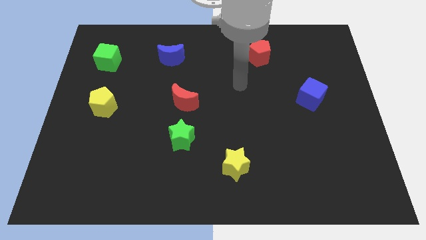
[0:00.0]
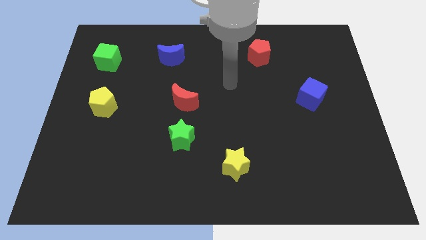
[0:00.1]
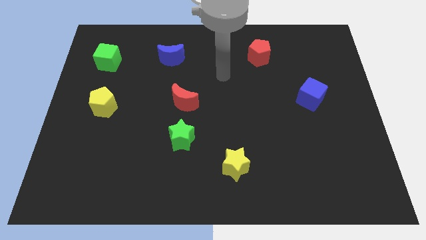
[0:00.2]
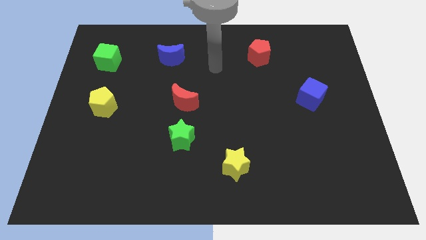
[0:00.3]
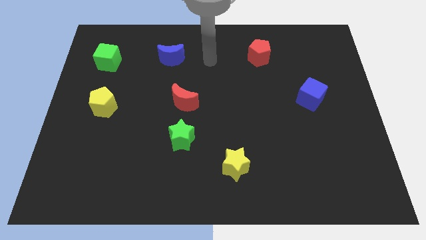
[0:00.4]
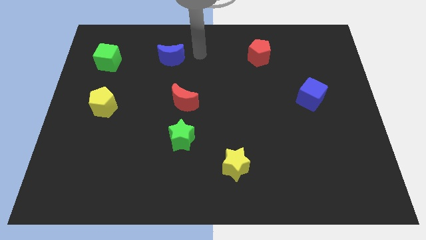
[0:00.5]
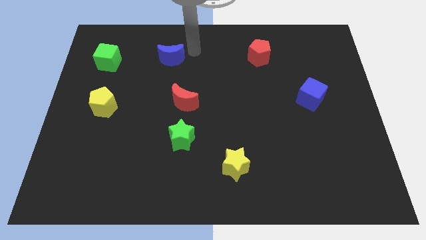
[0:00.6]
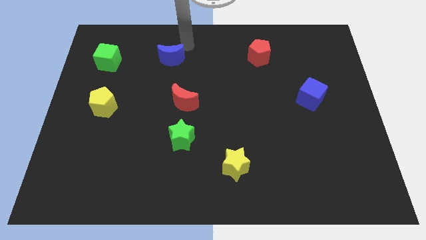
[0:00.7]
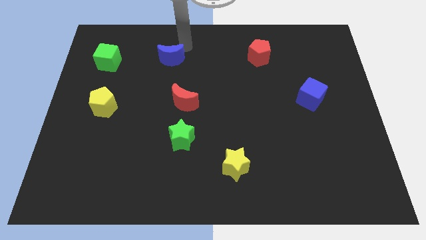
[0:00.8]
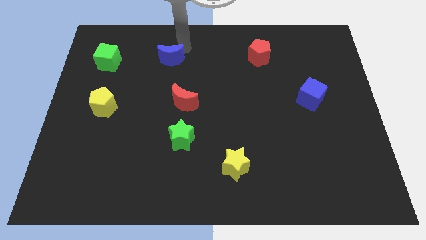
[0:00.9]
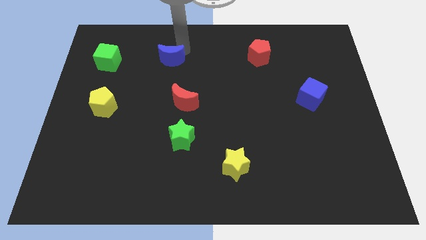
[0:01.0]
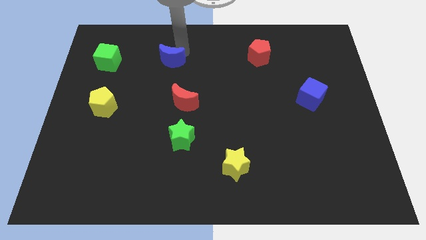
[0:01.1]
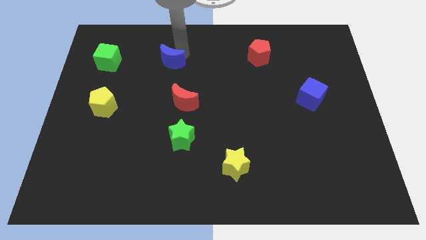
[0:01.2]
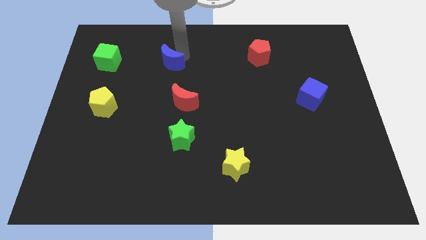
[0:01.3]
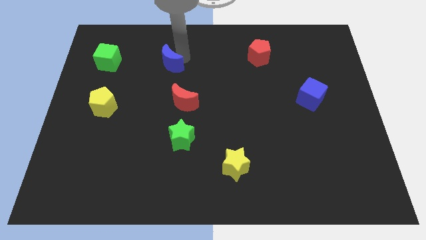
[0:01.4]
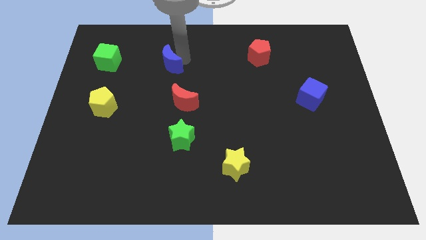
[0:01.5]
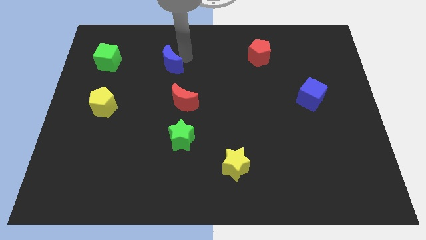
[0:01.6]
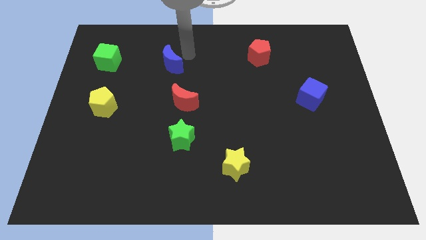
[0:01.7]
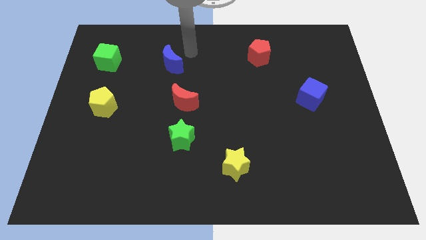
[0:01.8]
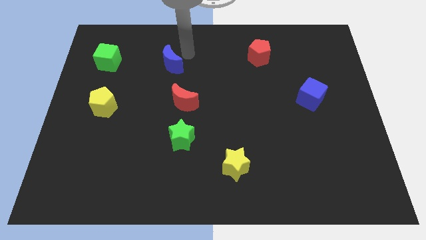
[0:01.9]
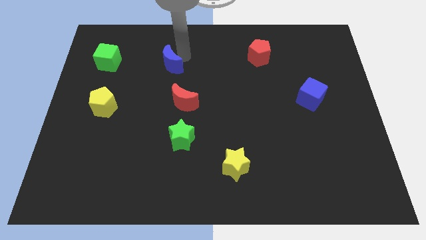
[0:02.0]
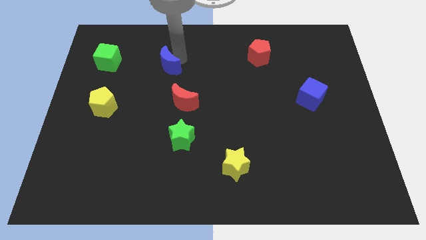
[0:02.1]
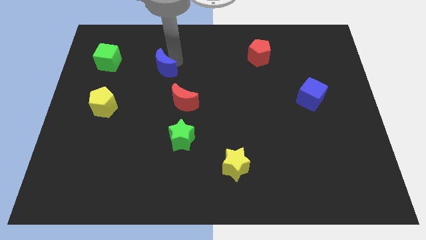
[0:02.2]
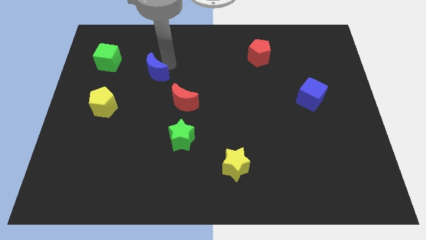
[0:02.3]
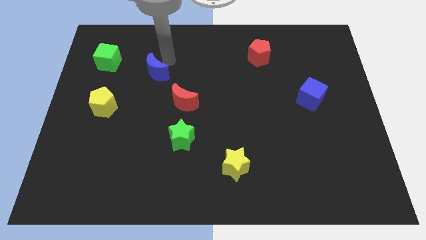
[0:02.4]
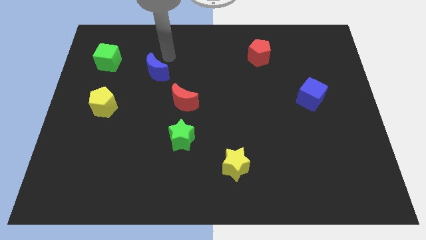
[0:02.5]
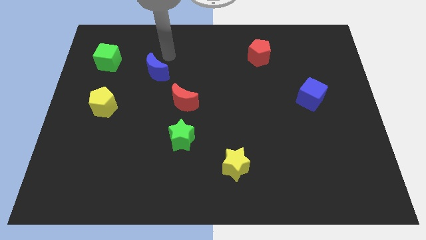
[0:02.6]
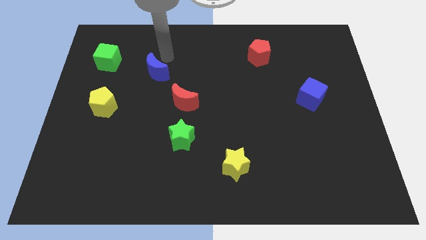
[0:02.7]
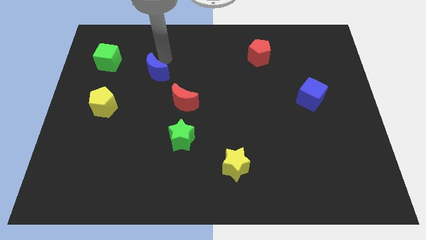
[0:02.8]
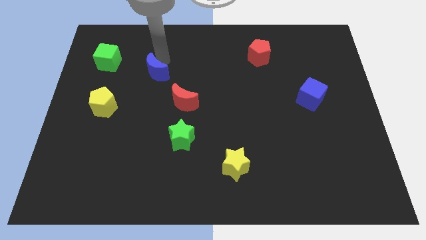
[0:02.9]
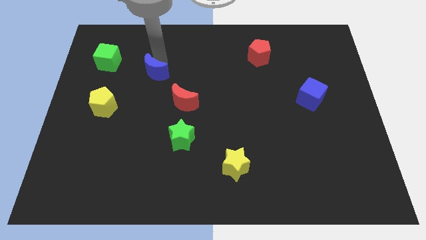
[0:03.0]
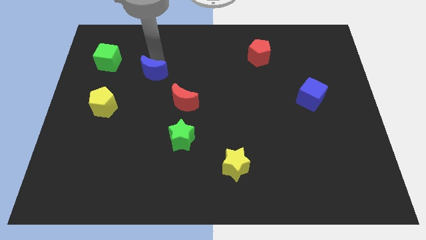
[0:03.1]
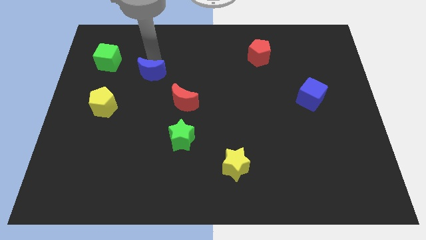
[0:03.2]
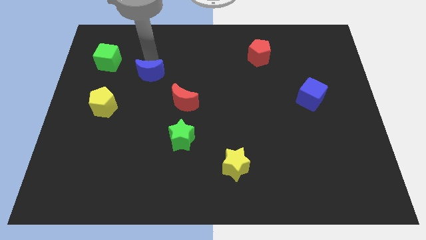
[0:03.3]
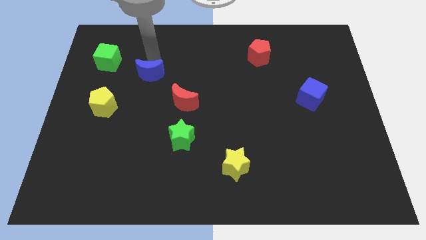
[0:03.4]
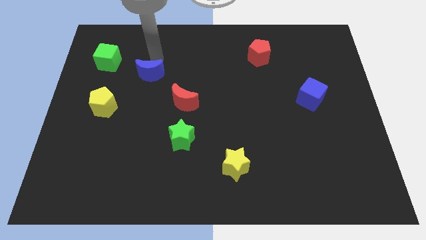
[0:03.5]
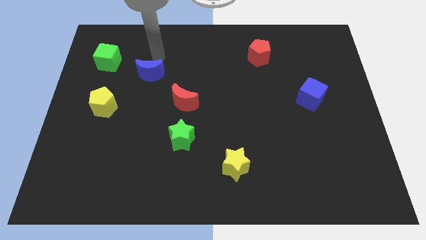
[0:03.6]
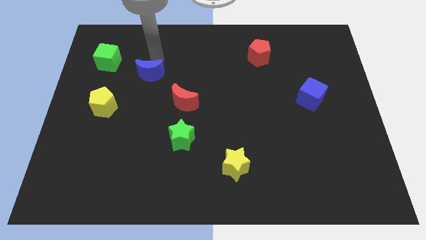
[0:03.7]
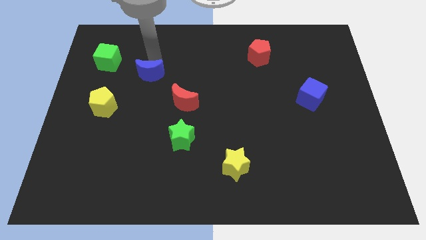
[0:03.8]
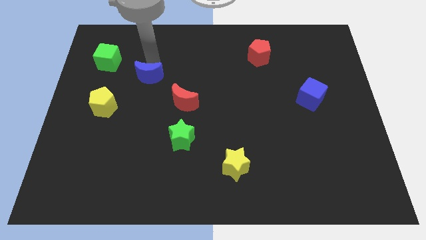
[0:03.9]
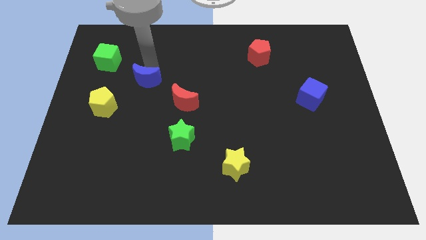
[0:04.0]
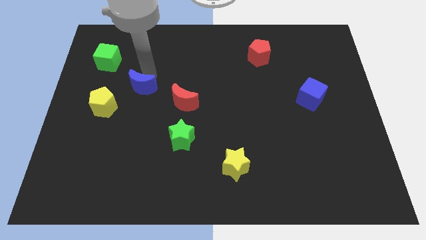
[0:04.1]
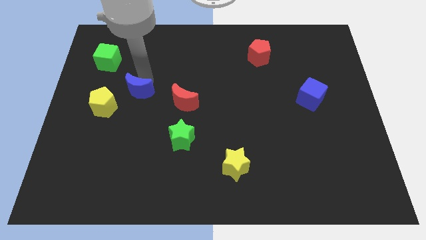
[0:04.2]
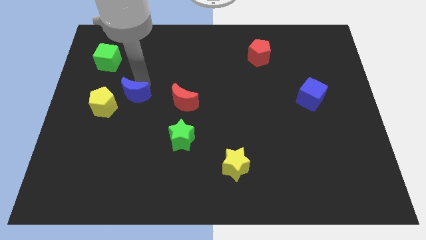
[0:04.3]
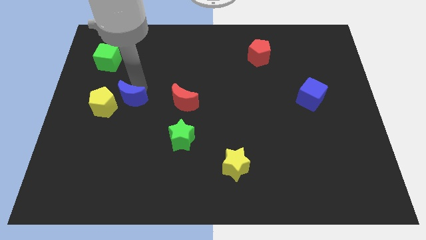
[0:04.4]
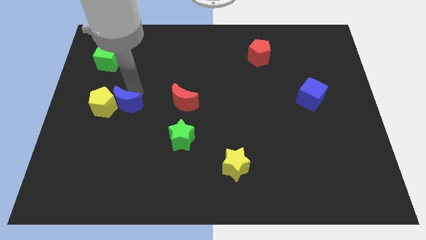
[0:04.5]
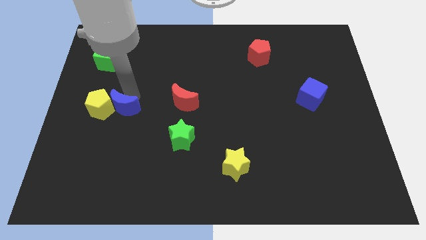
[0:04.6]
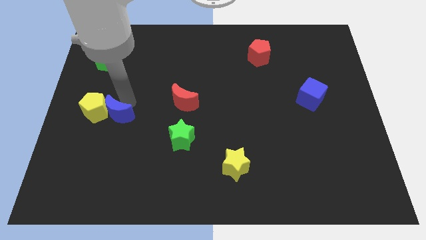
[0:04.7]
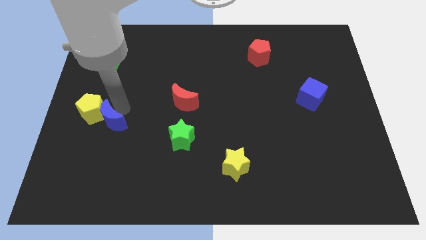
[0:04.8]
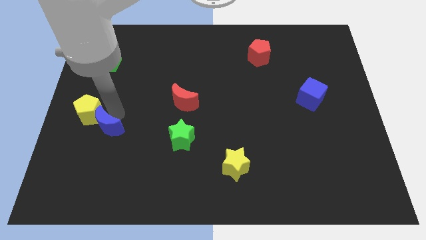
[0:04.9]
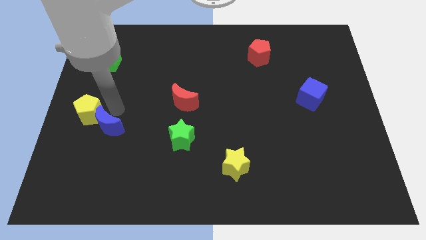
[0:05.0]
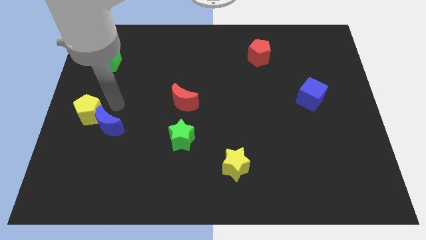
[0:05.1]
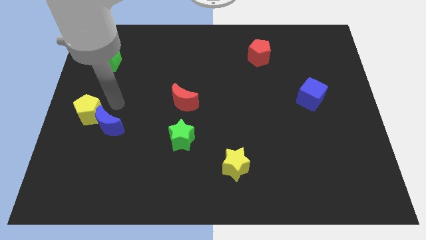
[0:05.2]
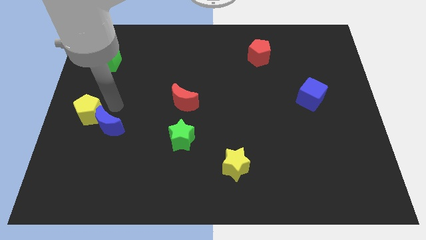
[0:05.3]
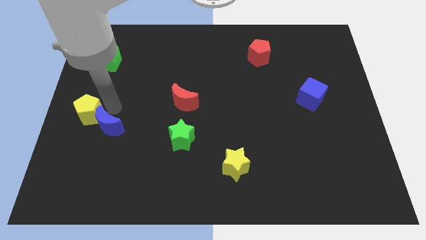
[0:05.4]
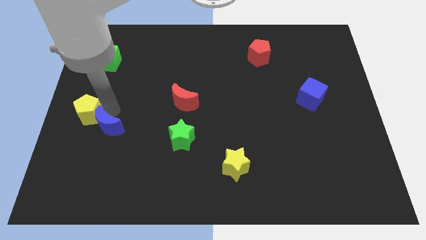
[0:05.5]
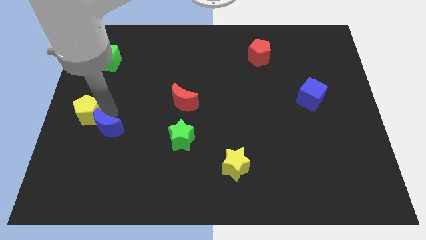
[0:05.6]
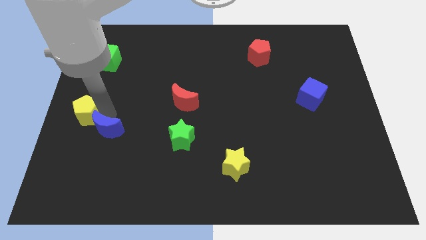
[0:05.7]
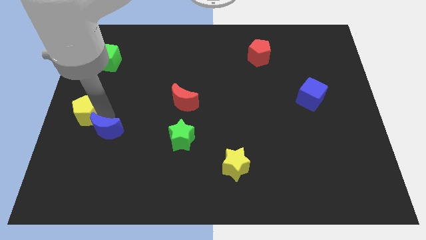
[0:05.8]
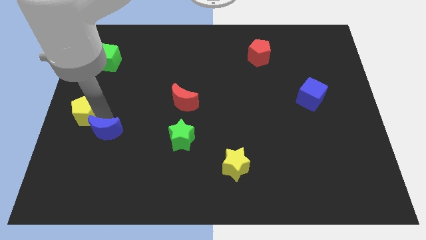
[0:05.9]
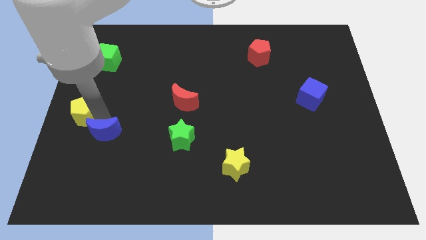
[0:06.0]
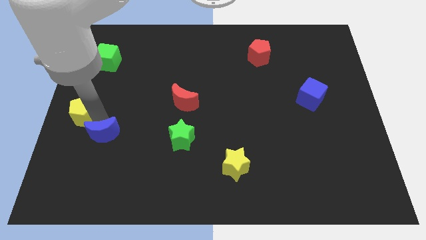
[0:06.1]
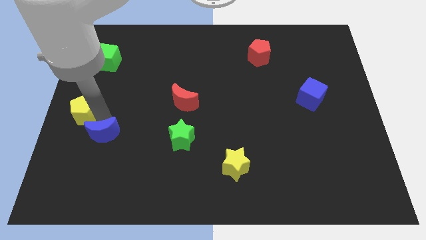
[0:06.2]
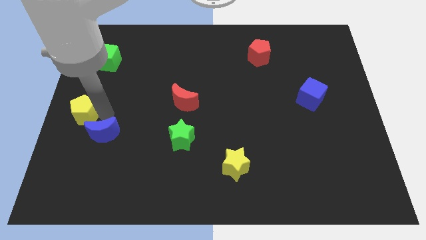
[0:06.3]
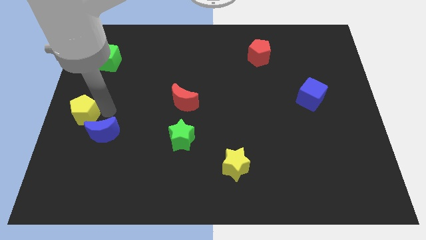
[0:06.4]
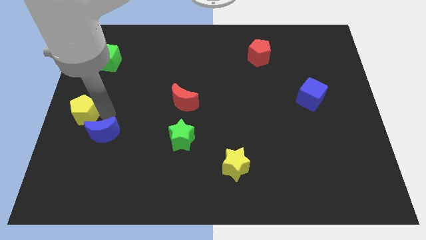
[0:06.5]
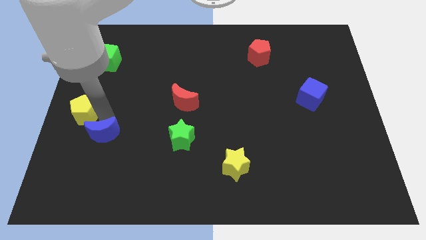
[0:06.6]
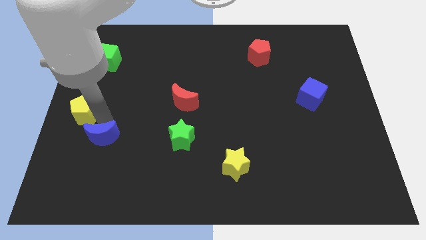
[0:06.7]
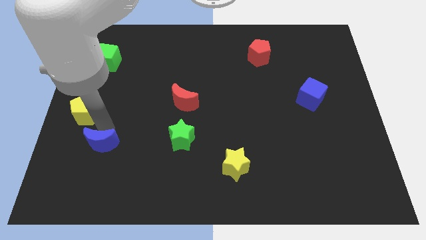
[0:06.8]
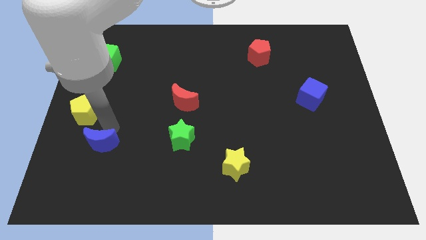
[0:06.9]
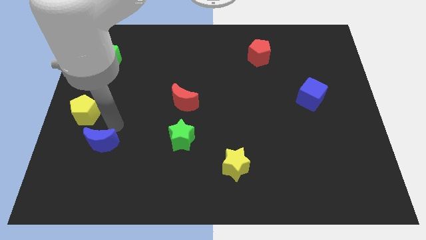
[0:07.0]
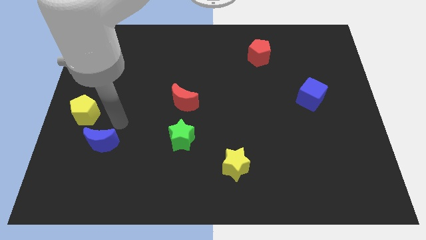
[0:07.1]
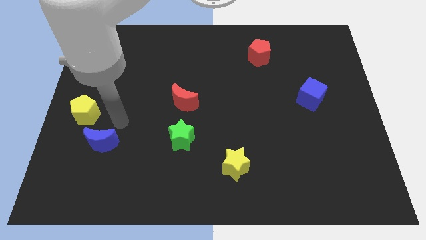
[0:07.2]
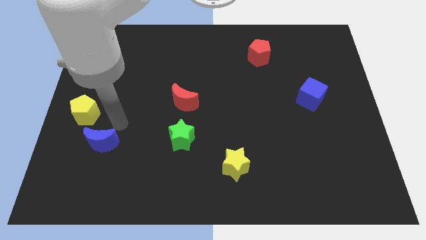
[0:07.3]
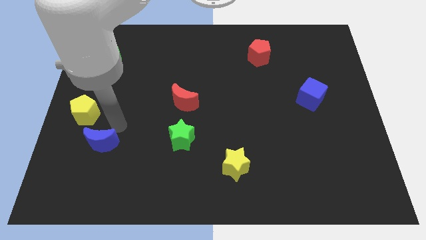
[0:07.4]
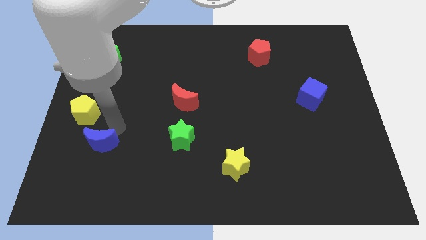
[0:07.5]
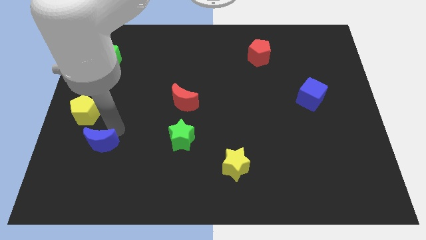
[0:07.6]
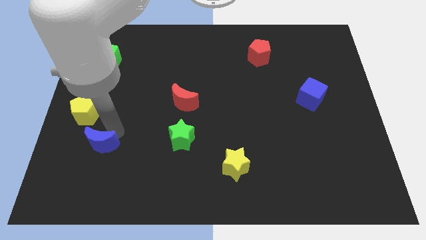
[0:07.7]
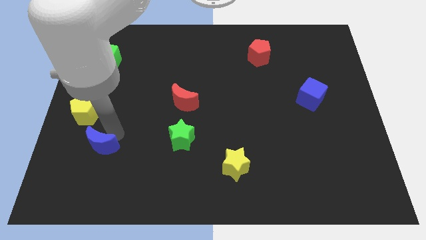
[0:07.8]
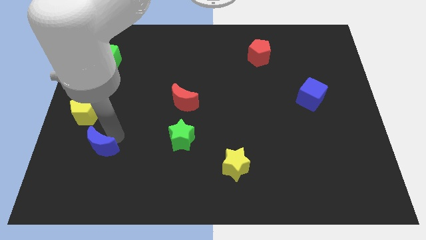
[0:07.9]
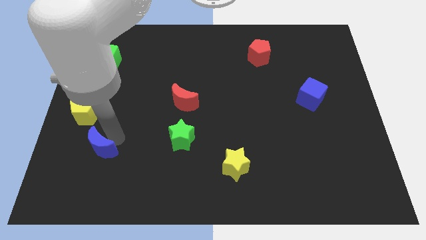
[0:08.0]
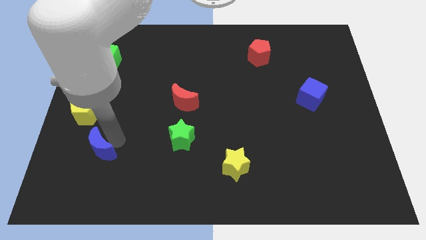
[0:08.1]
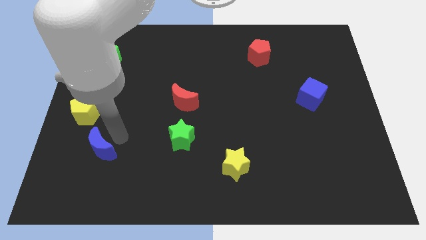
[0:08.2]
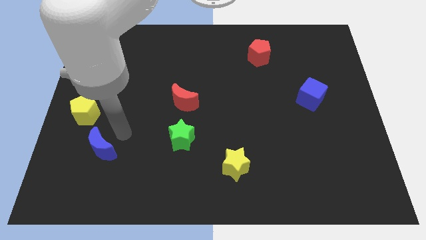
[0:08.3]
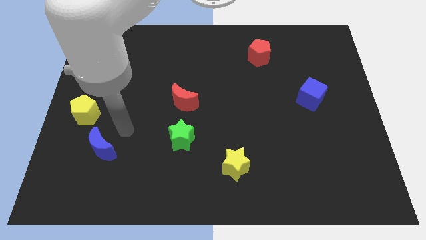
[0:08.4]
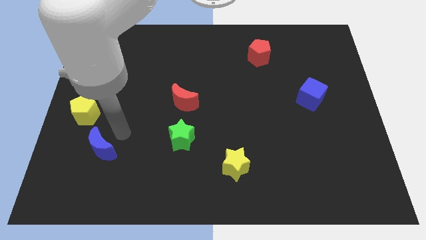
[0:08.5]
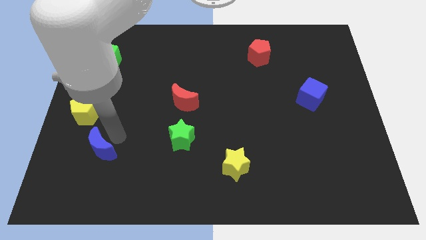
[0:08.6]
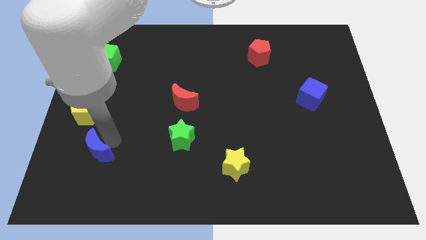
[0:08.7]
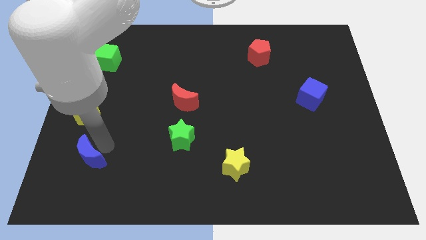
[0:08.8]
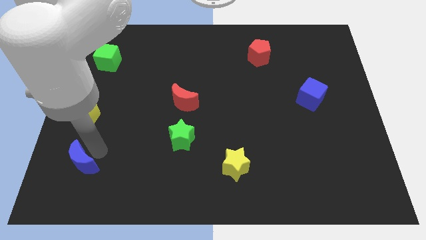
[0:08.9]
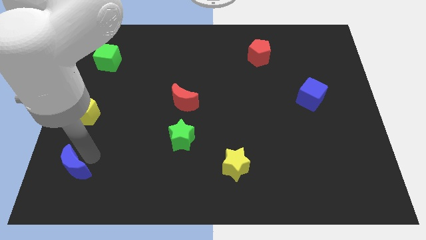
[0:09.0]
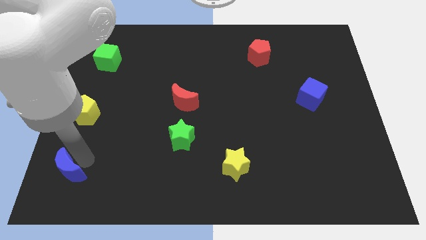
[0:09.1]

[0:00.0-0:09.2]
move the blue moon to the bottom left of the board
